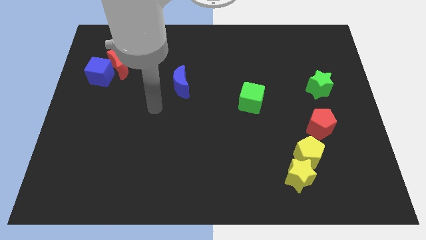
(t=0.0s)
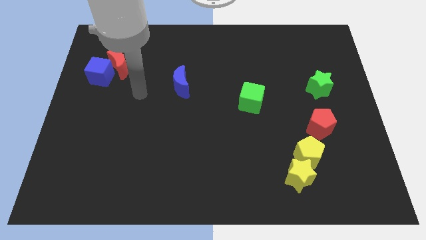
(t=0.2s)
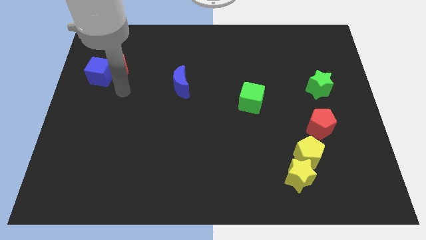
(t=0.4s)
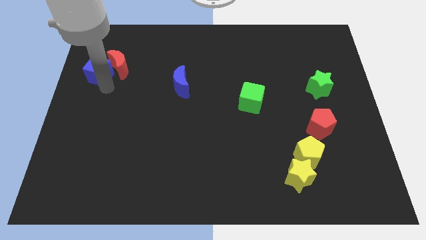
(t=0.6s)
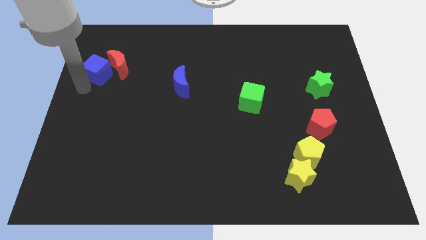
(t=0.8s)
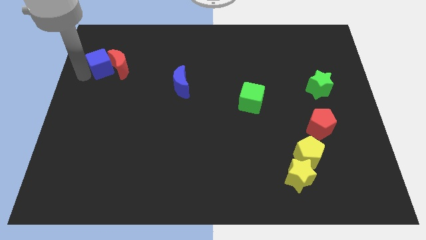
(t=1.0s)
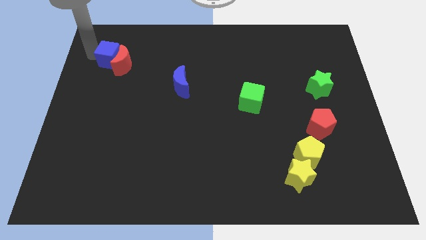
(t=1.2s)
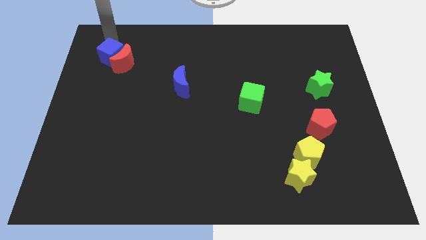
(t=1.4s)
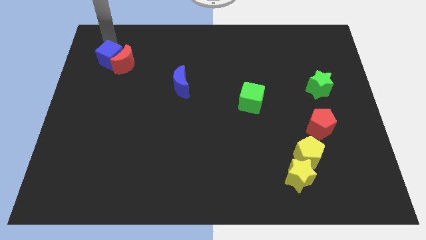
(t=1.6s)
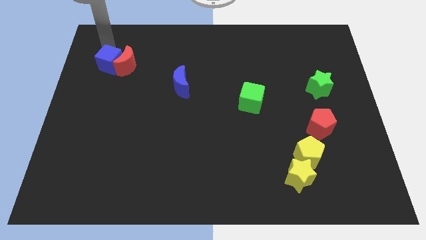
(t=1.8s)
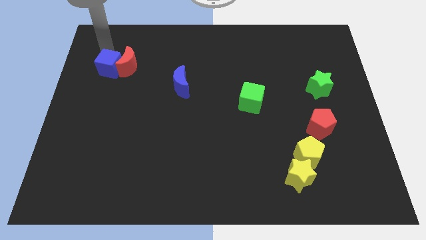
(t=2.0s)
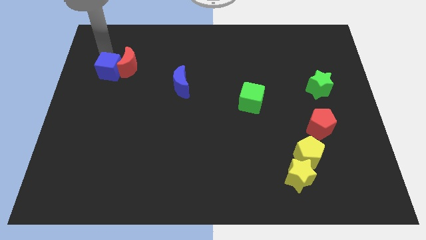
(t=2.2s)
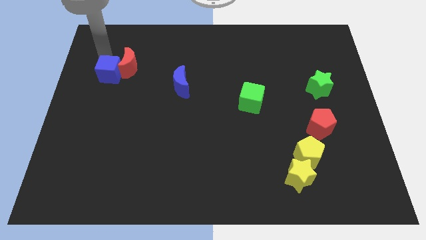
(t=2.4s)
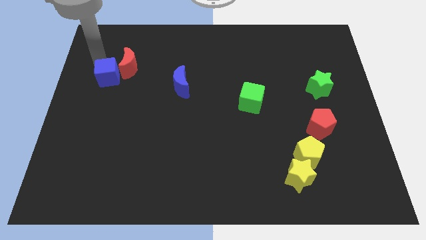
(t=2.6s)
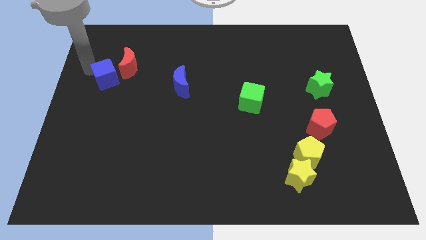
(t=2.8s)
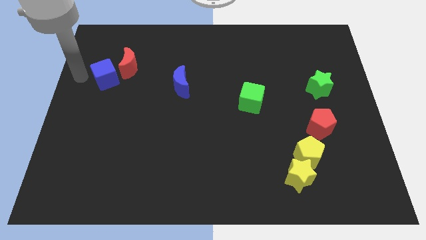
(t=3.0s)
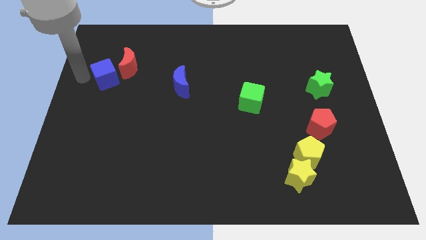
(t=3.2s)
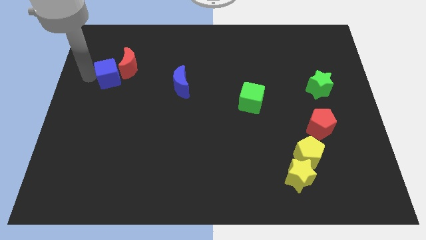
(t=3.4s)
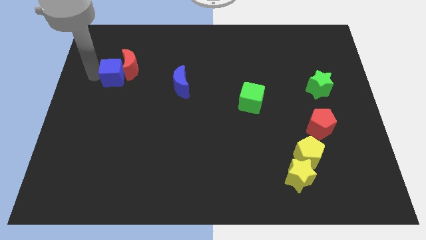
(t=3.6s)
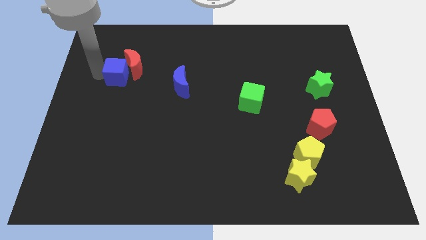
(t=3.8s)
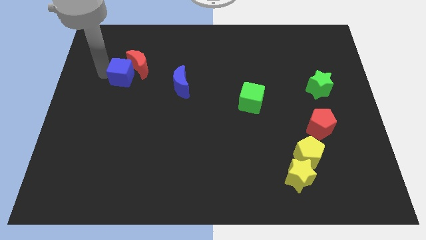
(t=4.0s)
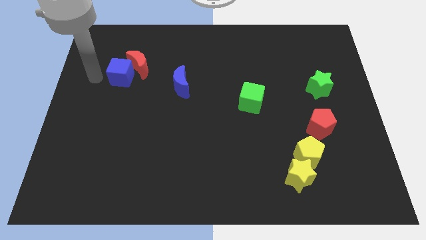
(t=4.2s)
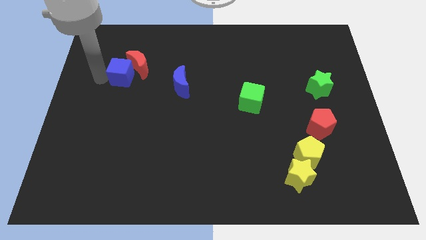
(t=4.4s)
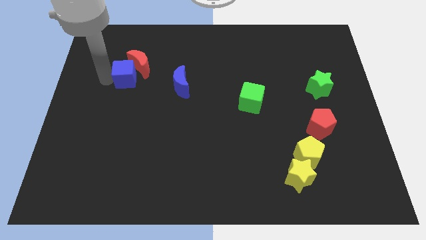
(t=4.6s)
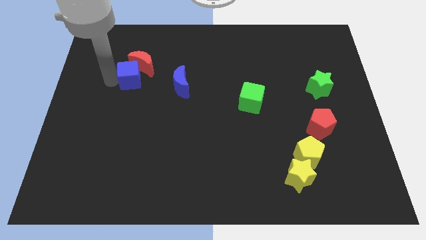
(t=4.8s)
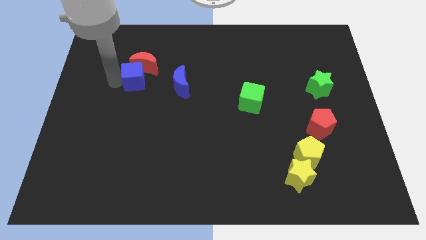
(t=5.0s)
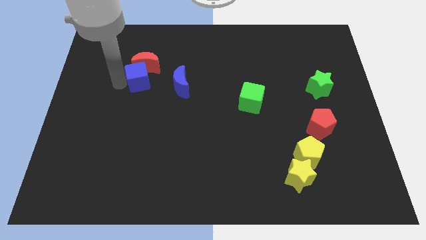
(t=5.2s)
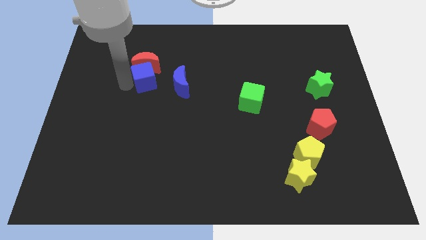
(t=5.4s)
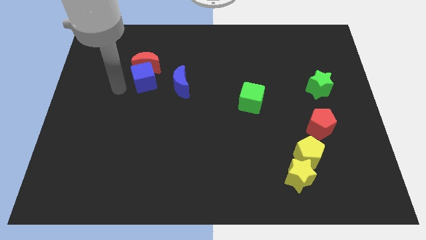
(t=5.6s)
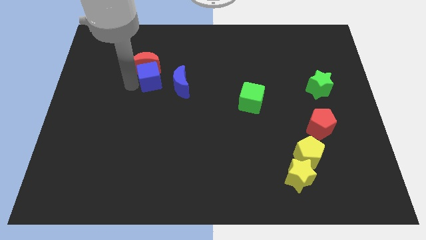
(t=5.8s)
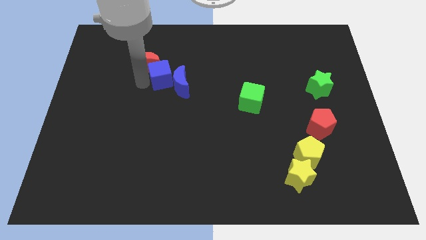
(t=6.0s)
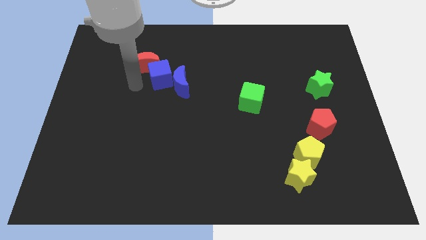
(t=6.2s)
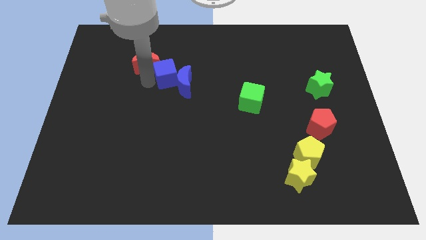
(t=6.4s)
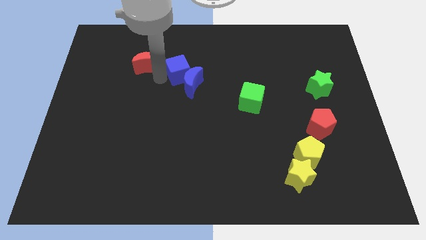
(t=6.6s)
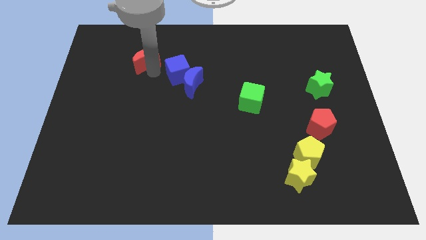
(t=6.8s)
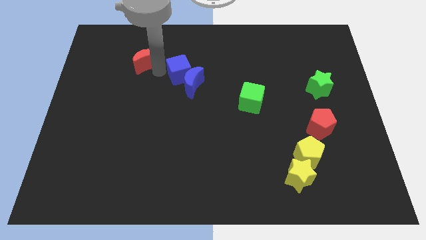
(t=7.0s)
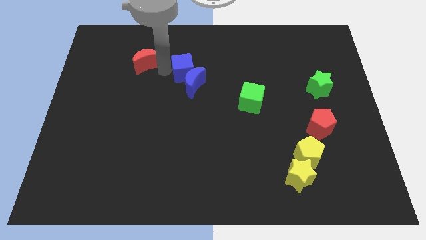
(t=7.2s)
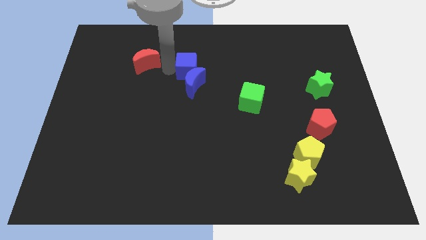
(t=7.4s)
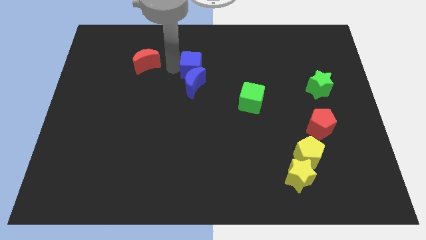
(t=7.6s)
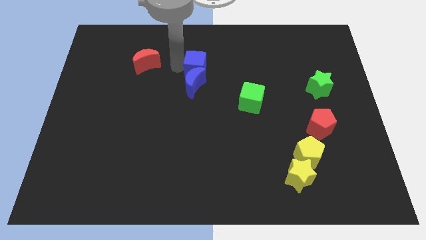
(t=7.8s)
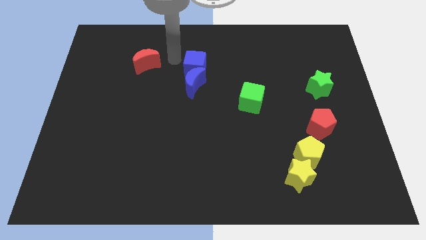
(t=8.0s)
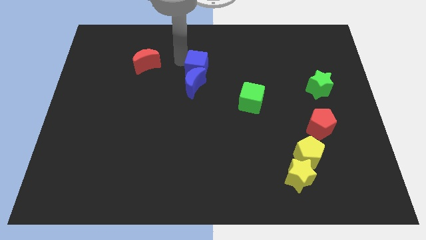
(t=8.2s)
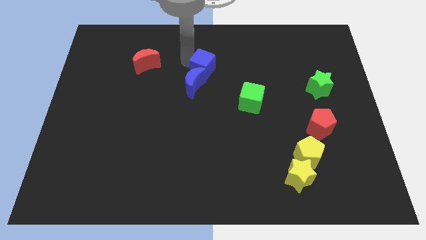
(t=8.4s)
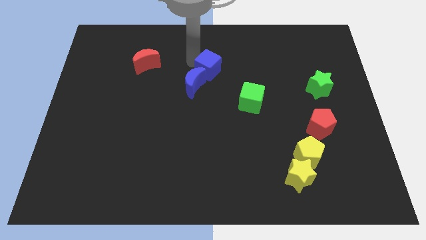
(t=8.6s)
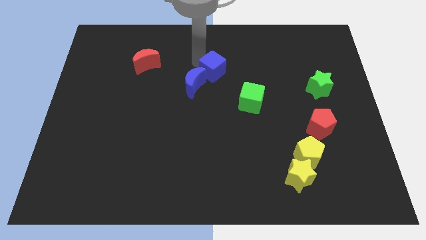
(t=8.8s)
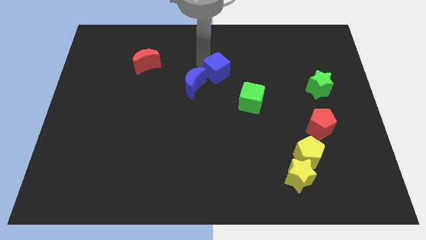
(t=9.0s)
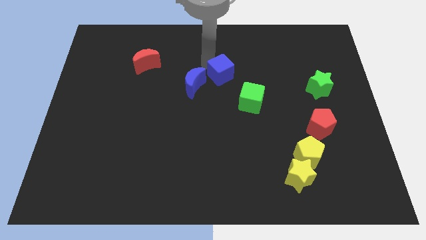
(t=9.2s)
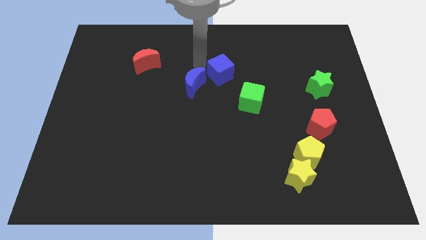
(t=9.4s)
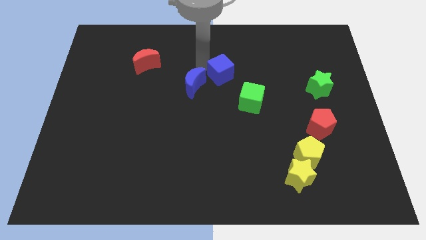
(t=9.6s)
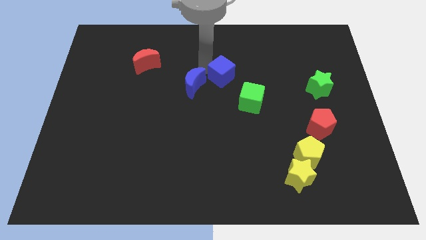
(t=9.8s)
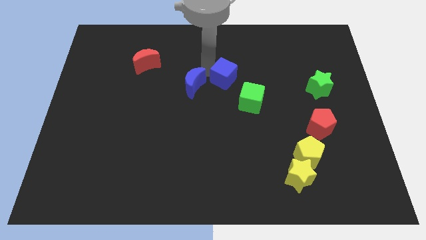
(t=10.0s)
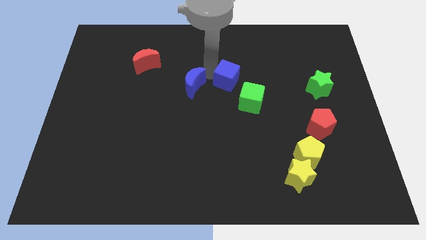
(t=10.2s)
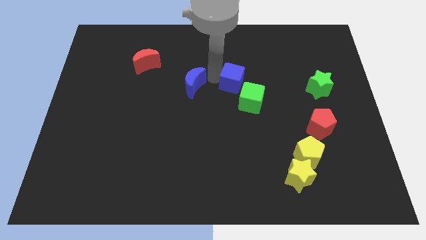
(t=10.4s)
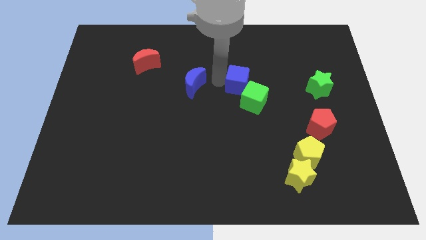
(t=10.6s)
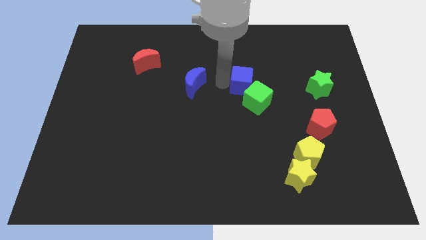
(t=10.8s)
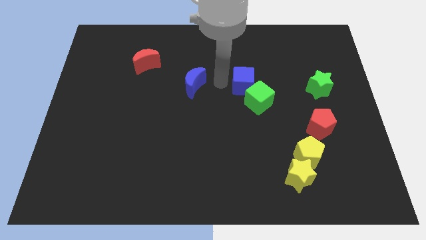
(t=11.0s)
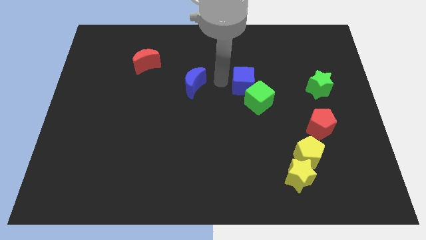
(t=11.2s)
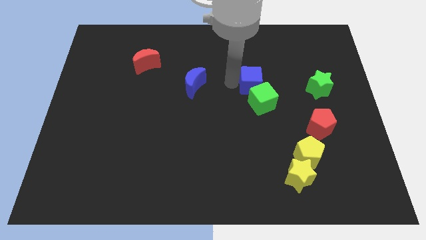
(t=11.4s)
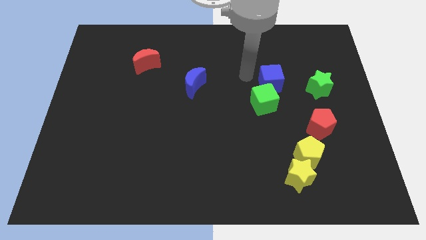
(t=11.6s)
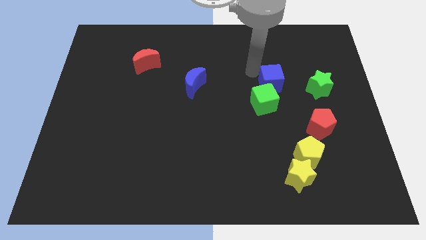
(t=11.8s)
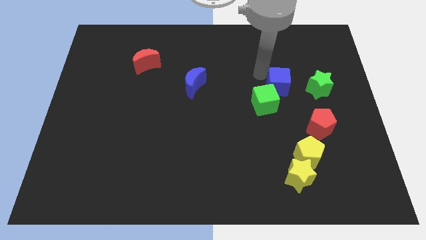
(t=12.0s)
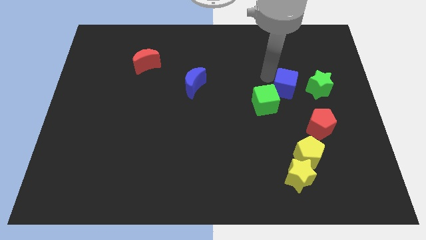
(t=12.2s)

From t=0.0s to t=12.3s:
slide the blue cube just right of the green cube
